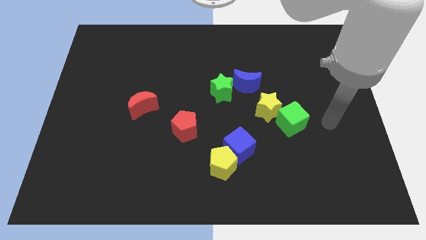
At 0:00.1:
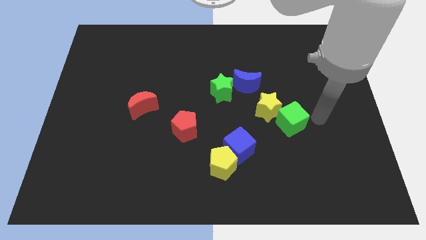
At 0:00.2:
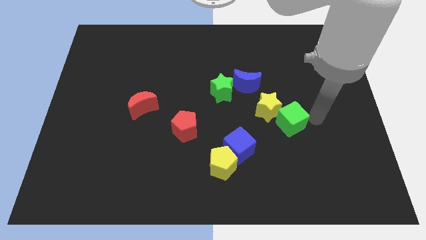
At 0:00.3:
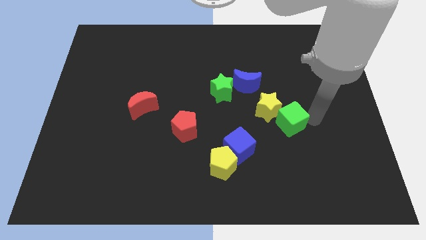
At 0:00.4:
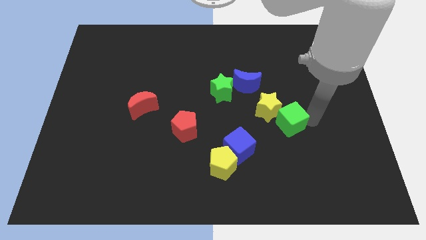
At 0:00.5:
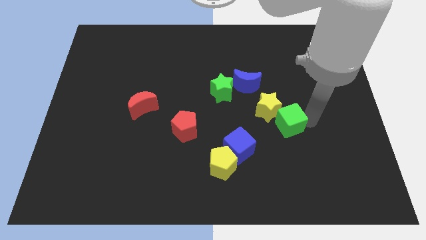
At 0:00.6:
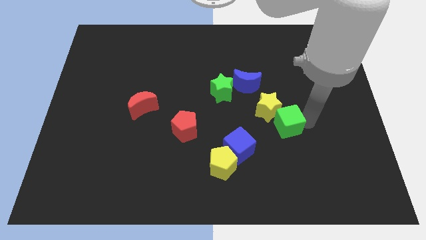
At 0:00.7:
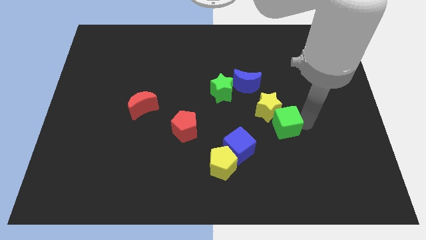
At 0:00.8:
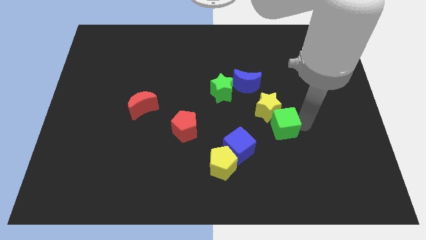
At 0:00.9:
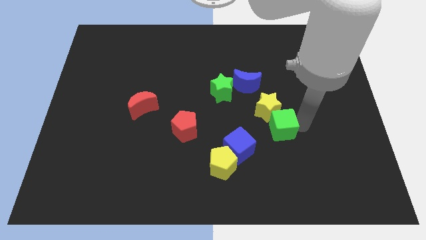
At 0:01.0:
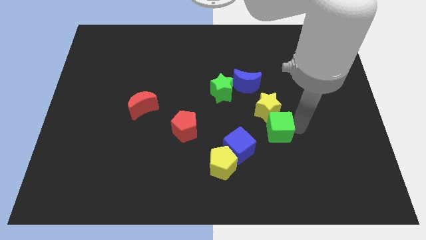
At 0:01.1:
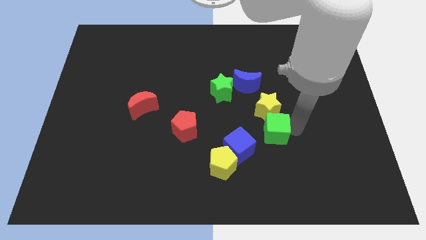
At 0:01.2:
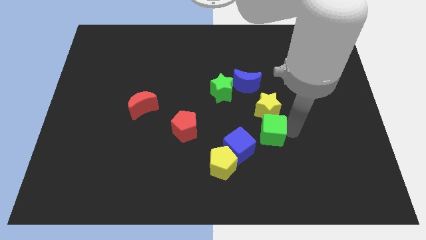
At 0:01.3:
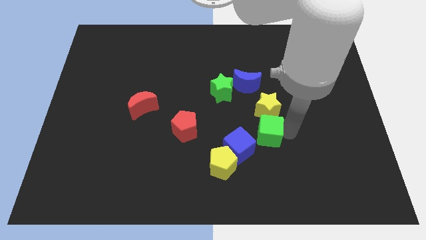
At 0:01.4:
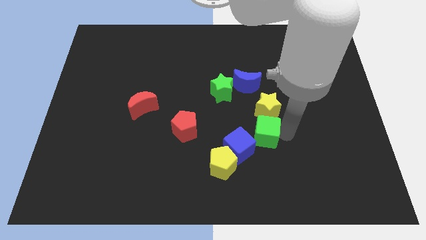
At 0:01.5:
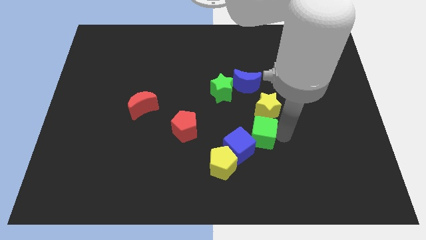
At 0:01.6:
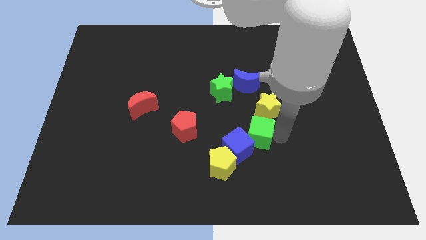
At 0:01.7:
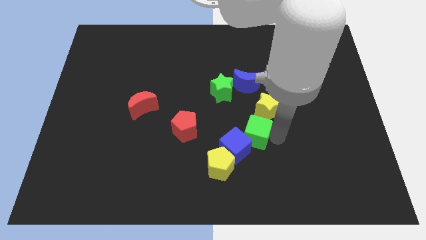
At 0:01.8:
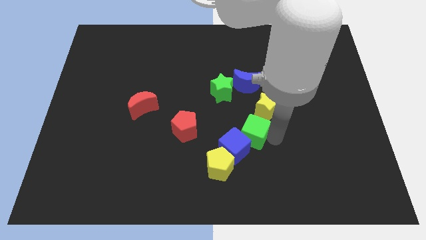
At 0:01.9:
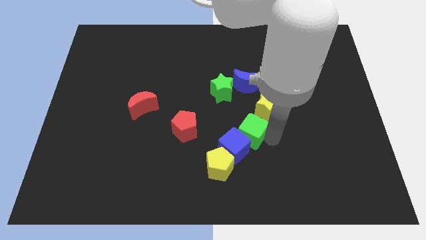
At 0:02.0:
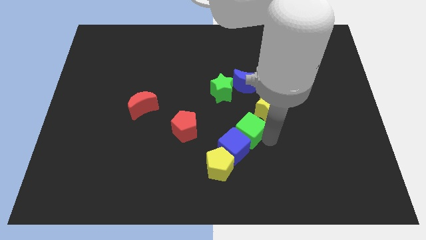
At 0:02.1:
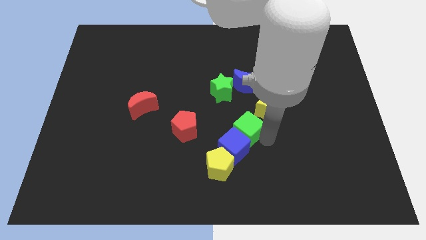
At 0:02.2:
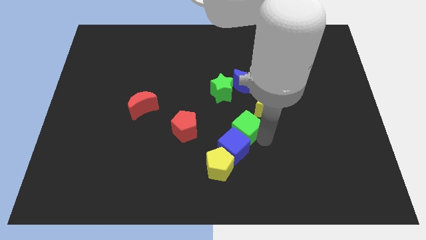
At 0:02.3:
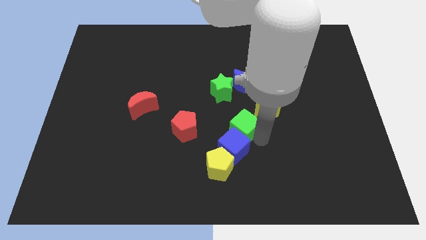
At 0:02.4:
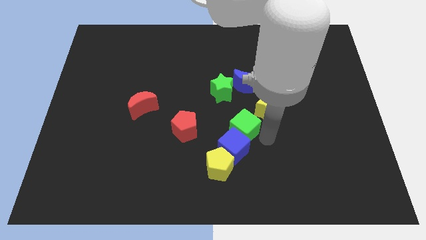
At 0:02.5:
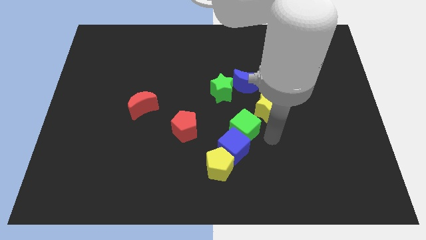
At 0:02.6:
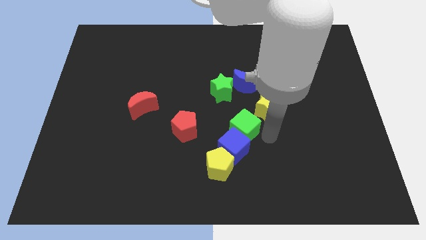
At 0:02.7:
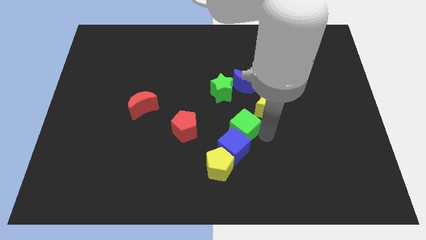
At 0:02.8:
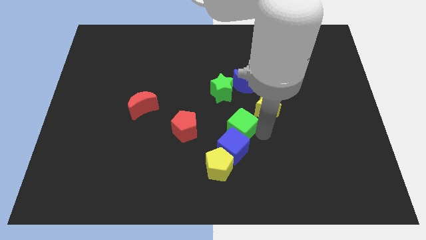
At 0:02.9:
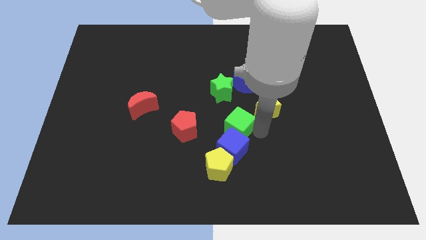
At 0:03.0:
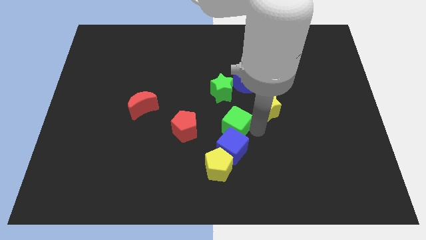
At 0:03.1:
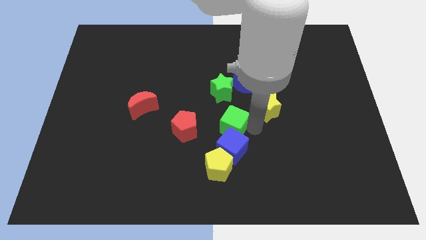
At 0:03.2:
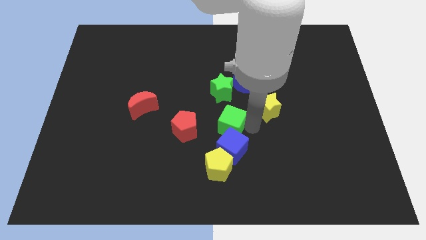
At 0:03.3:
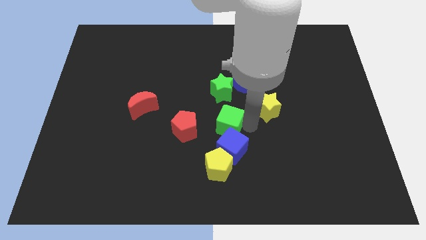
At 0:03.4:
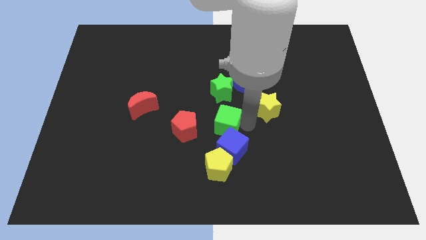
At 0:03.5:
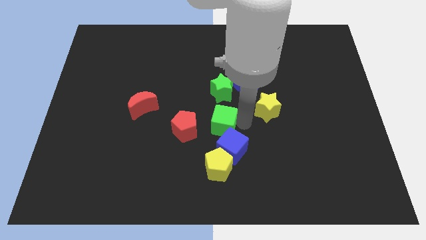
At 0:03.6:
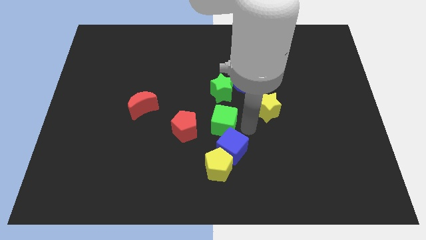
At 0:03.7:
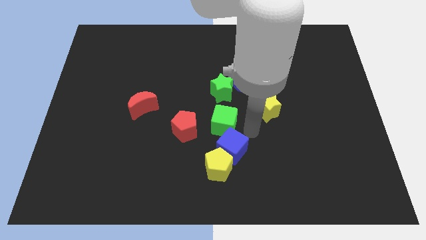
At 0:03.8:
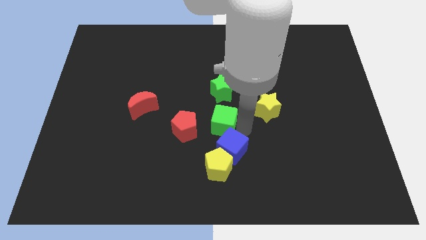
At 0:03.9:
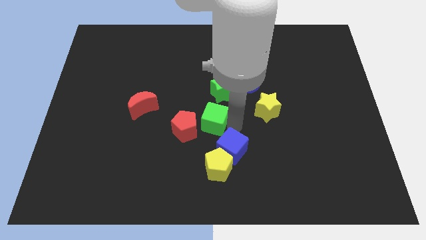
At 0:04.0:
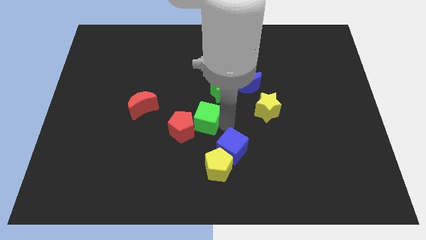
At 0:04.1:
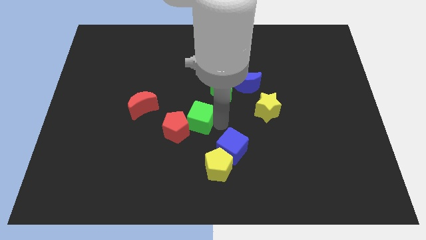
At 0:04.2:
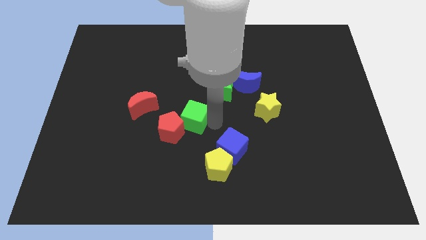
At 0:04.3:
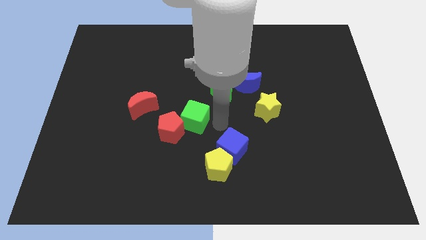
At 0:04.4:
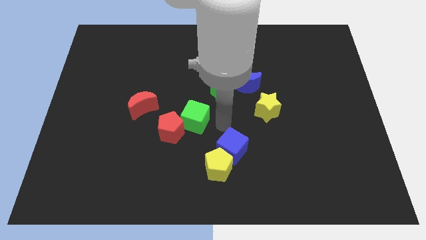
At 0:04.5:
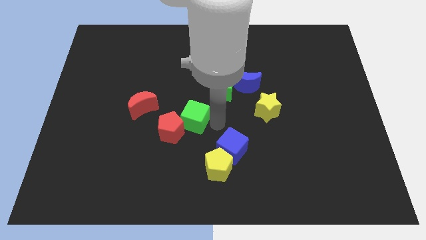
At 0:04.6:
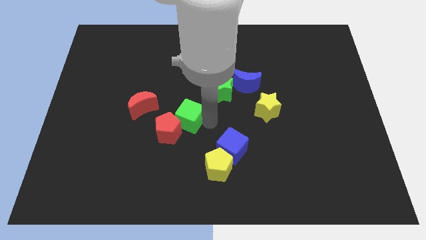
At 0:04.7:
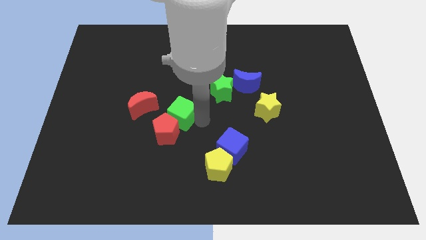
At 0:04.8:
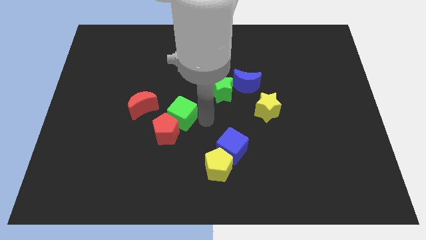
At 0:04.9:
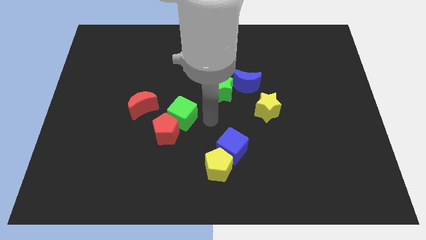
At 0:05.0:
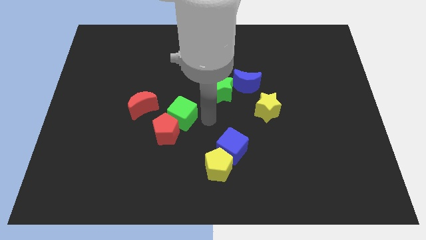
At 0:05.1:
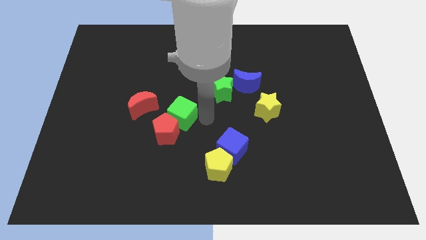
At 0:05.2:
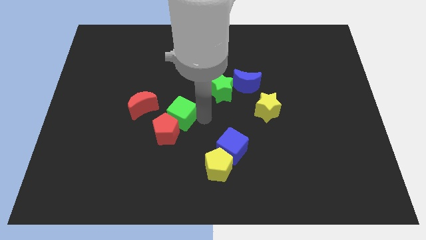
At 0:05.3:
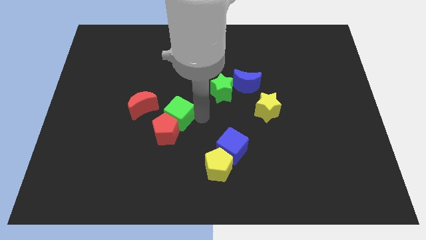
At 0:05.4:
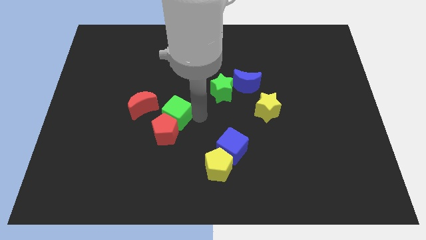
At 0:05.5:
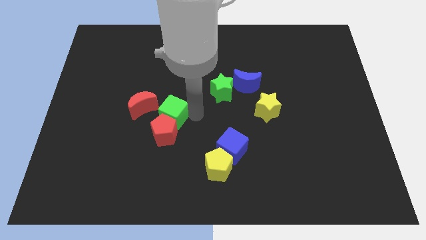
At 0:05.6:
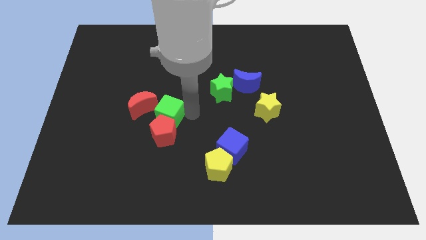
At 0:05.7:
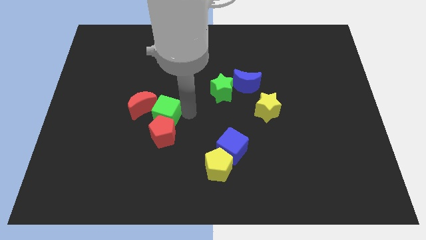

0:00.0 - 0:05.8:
move the green cube next to the red moon

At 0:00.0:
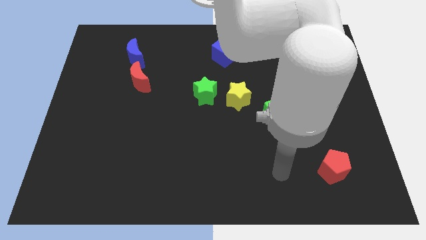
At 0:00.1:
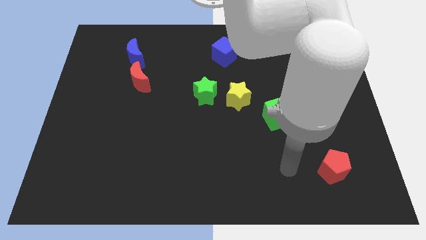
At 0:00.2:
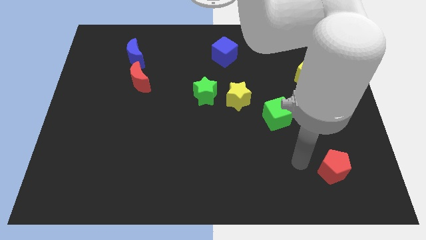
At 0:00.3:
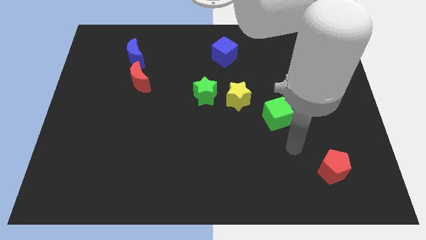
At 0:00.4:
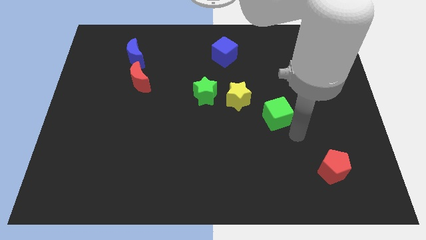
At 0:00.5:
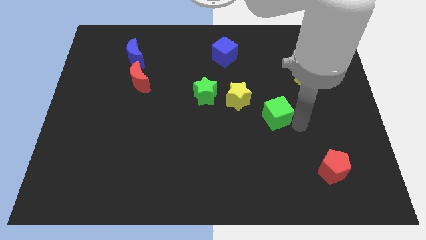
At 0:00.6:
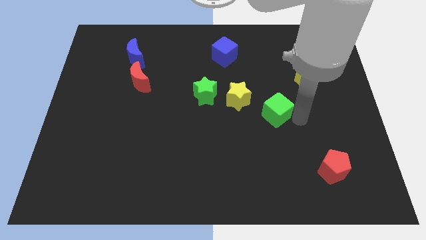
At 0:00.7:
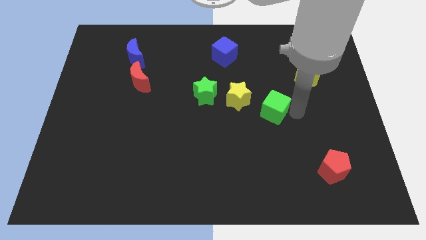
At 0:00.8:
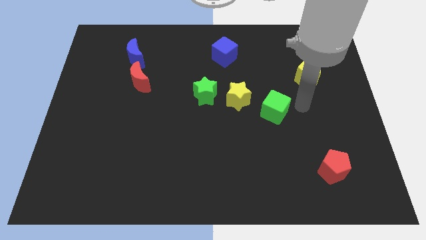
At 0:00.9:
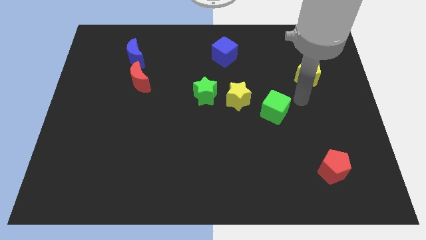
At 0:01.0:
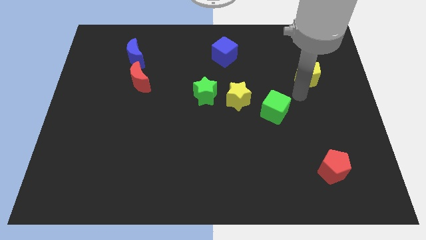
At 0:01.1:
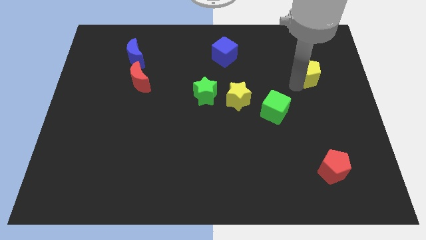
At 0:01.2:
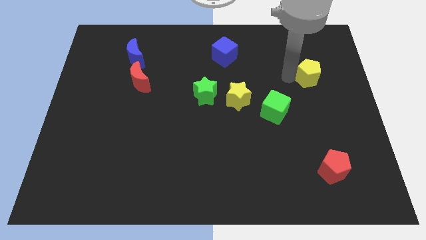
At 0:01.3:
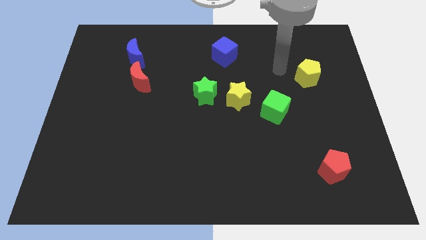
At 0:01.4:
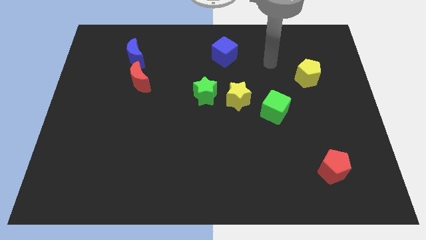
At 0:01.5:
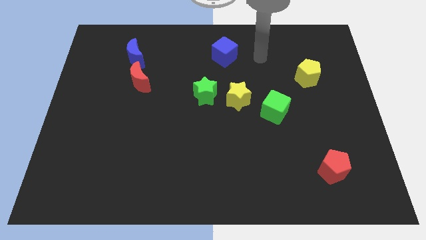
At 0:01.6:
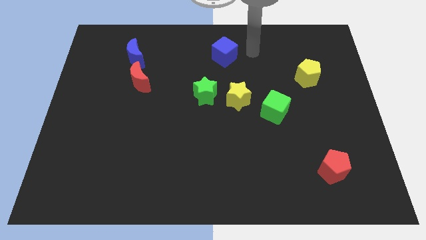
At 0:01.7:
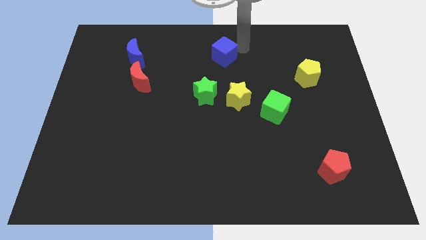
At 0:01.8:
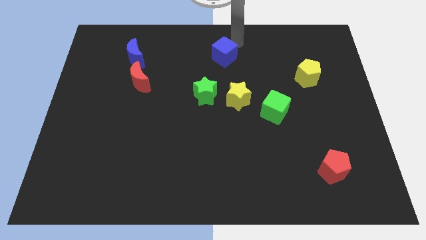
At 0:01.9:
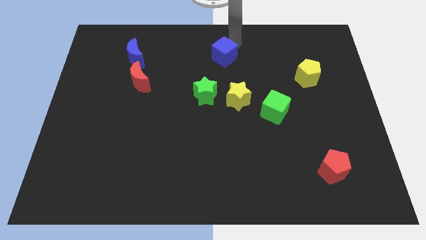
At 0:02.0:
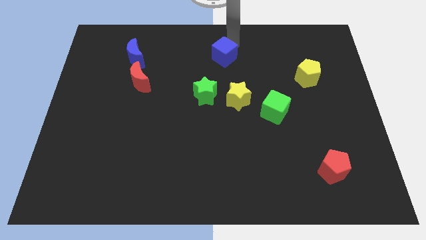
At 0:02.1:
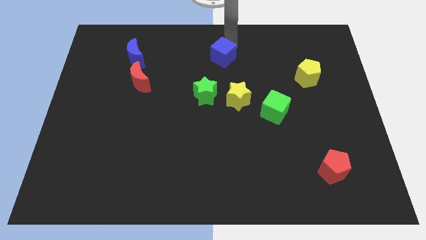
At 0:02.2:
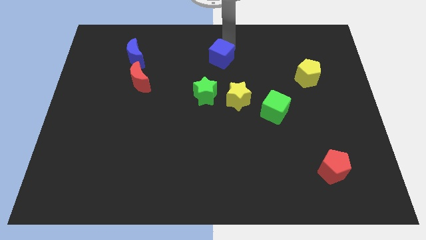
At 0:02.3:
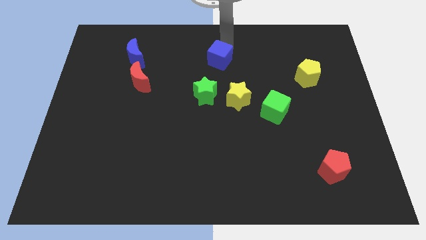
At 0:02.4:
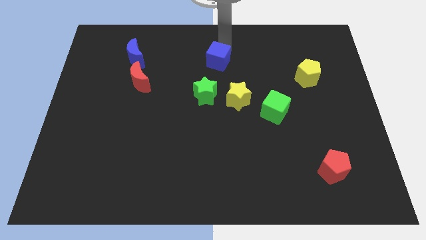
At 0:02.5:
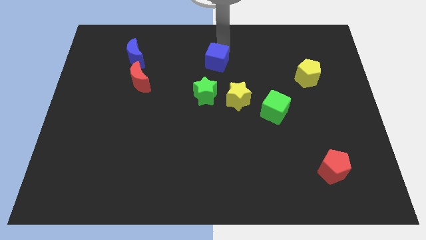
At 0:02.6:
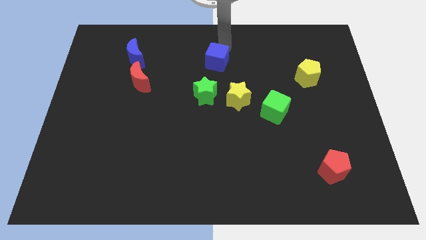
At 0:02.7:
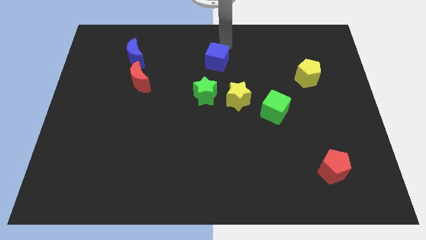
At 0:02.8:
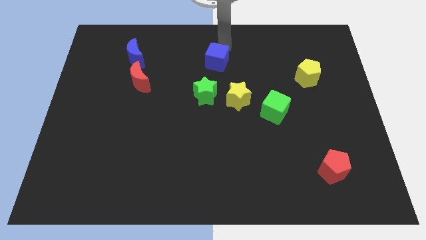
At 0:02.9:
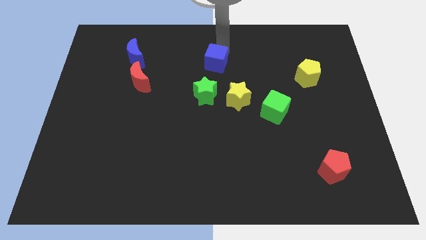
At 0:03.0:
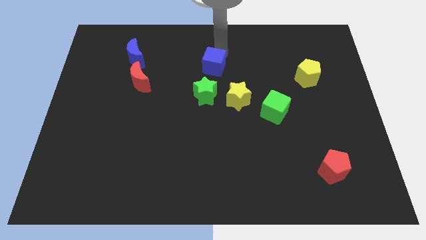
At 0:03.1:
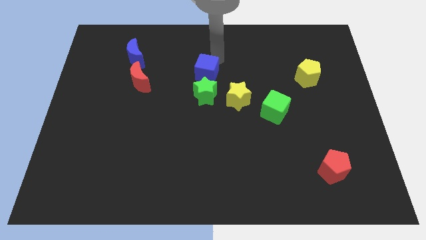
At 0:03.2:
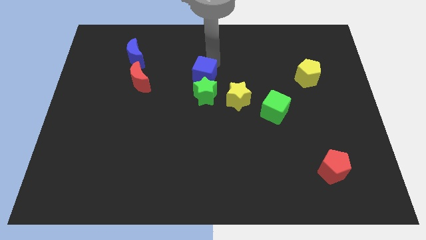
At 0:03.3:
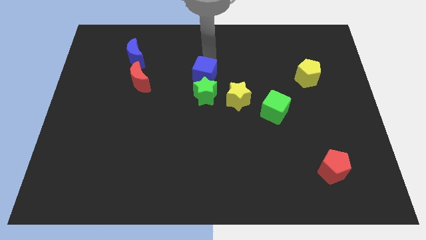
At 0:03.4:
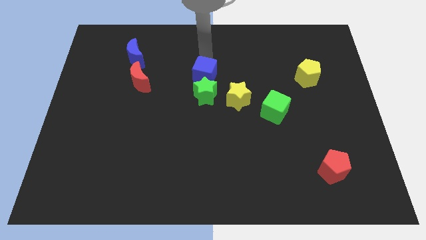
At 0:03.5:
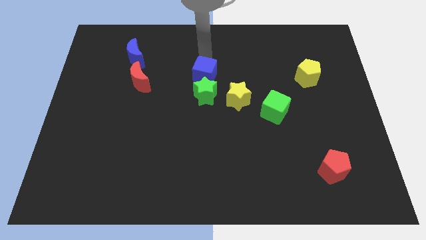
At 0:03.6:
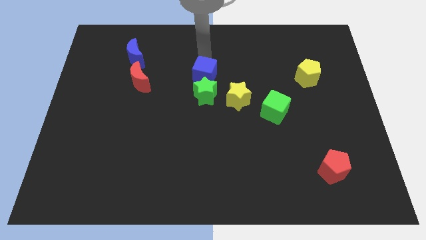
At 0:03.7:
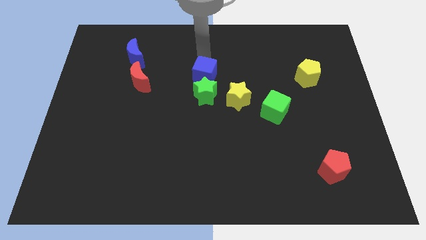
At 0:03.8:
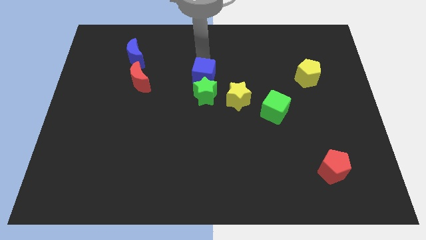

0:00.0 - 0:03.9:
move the blue cube towards the green star
